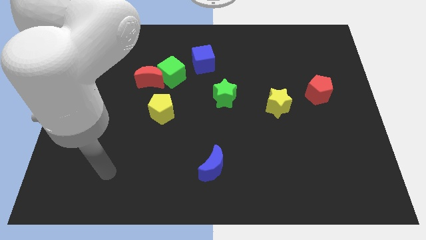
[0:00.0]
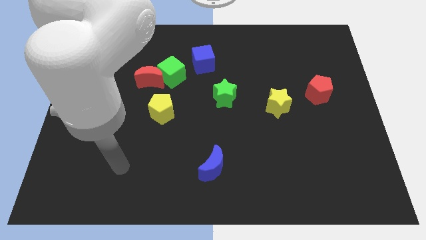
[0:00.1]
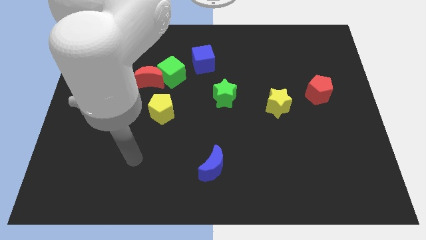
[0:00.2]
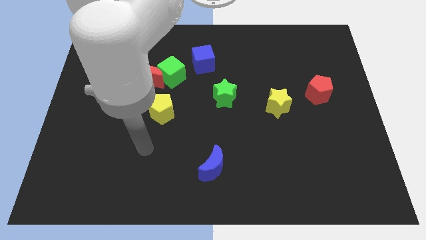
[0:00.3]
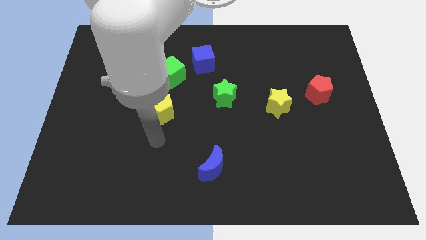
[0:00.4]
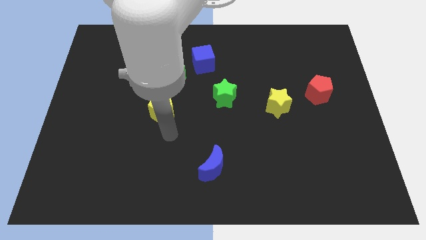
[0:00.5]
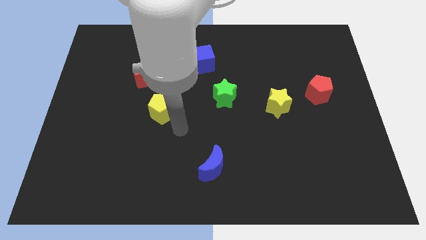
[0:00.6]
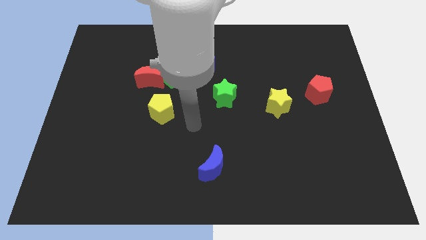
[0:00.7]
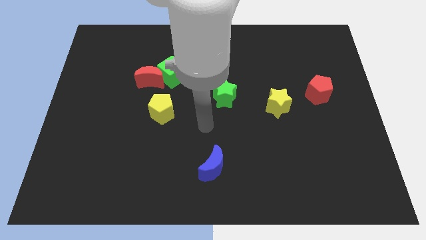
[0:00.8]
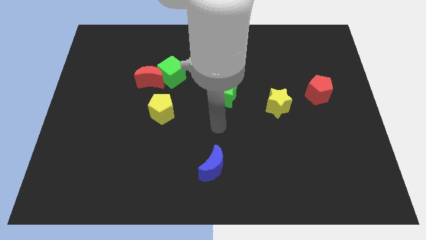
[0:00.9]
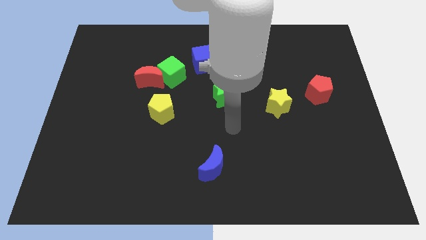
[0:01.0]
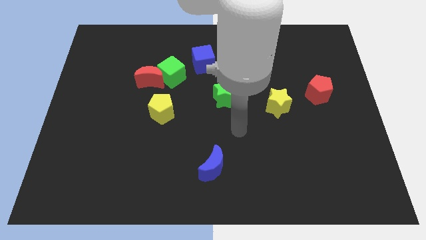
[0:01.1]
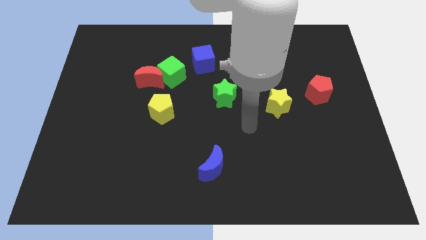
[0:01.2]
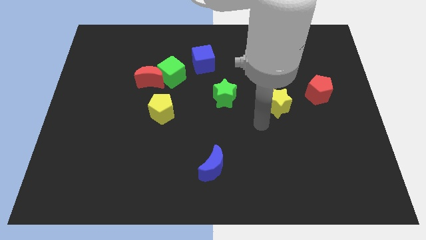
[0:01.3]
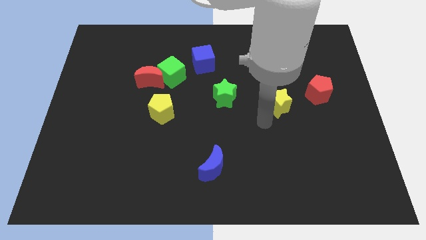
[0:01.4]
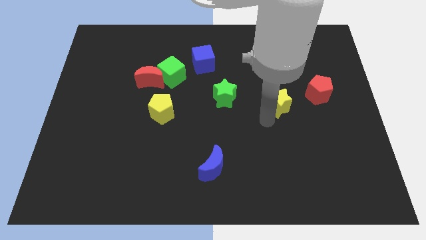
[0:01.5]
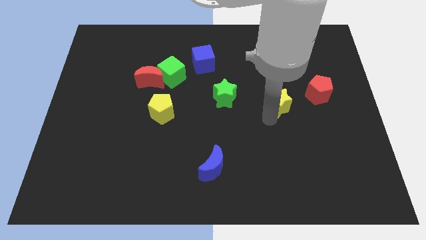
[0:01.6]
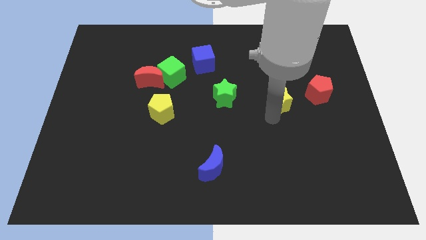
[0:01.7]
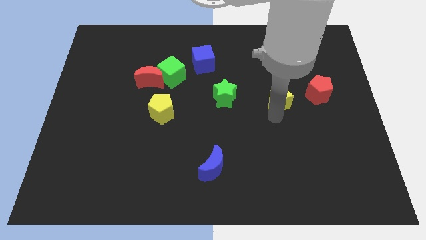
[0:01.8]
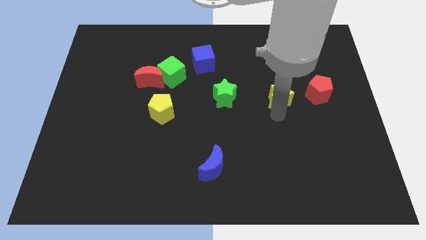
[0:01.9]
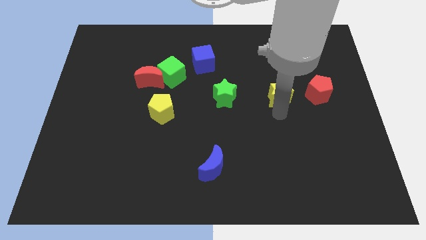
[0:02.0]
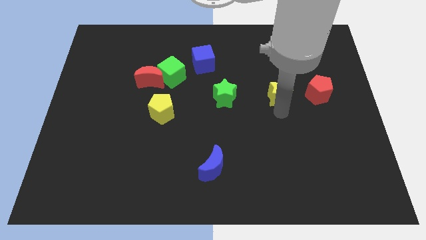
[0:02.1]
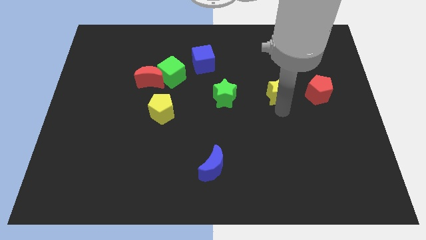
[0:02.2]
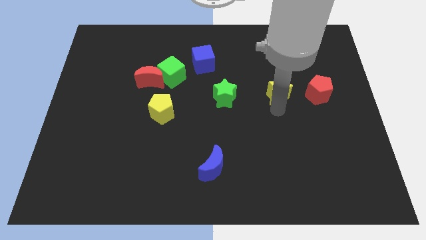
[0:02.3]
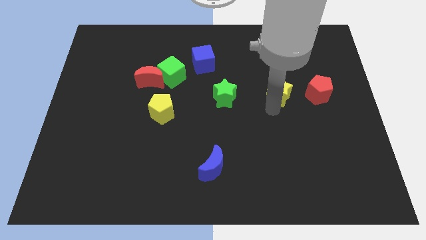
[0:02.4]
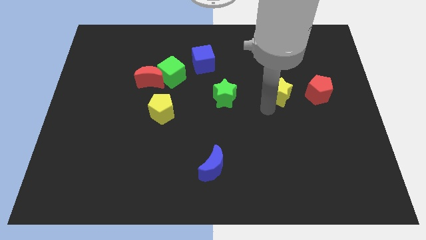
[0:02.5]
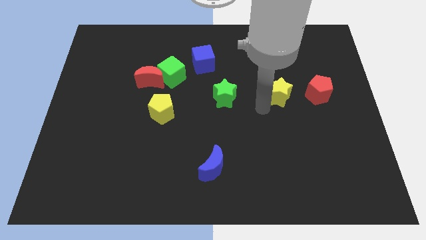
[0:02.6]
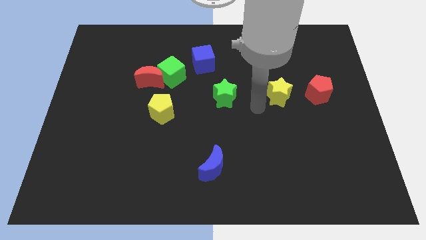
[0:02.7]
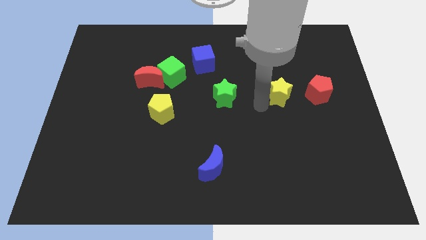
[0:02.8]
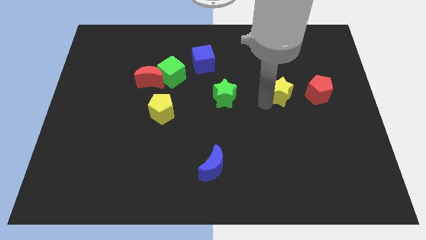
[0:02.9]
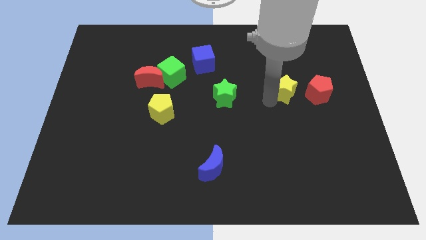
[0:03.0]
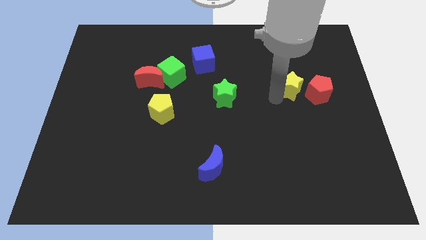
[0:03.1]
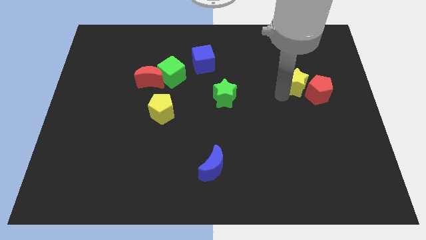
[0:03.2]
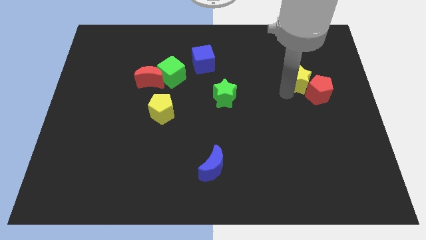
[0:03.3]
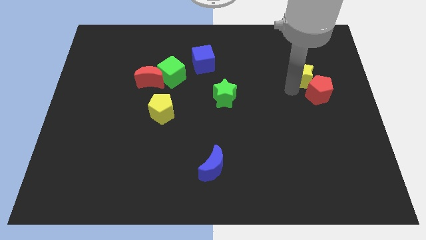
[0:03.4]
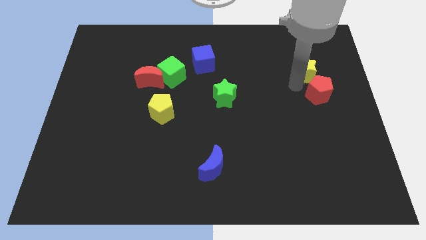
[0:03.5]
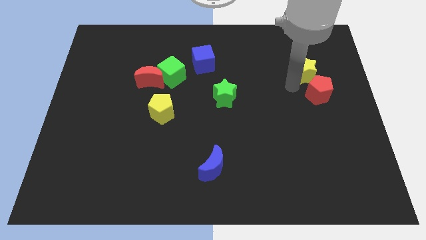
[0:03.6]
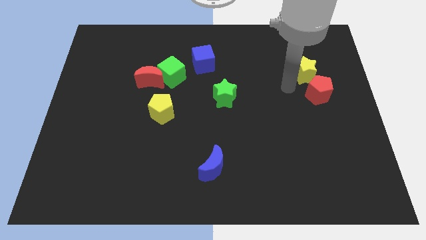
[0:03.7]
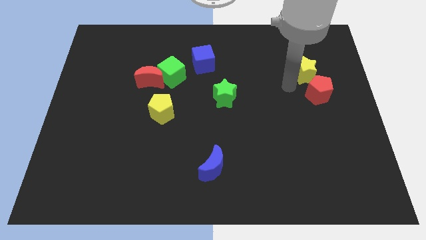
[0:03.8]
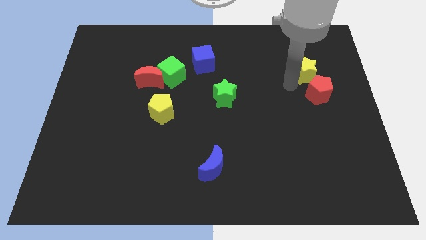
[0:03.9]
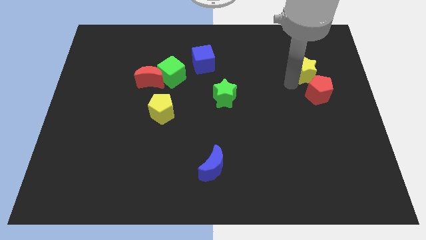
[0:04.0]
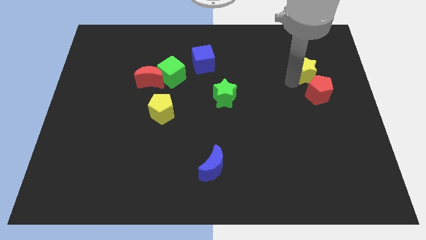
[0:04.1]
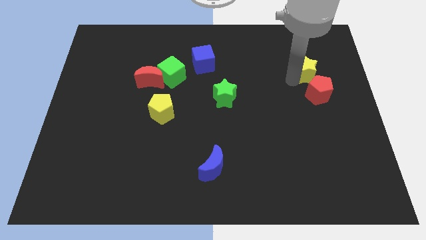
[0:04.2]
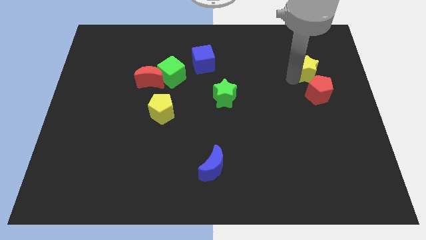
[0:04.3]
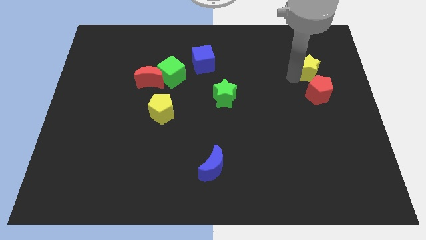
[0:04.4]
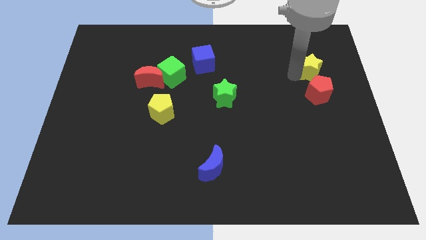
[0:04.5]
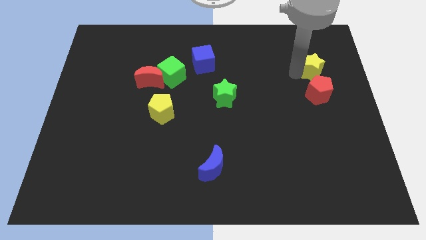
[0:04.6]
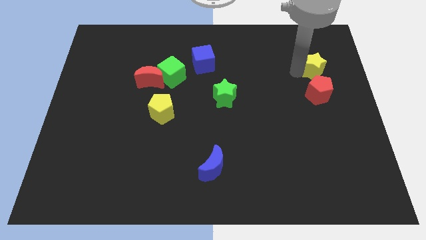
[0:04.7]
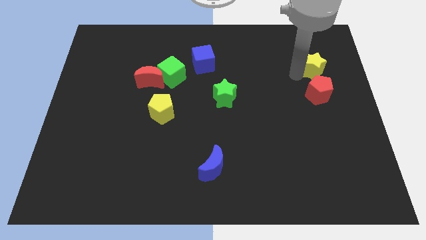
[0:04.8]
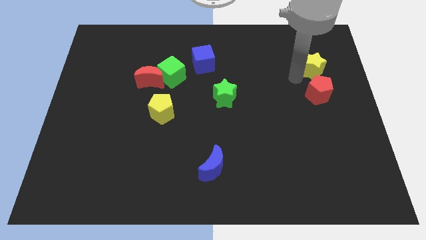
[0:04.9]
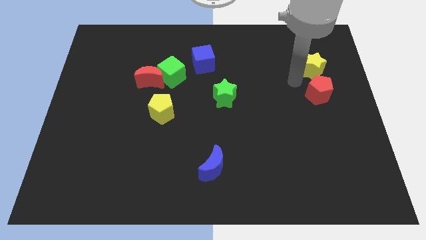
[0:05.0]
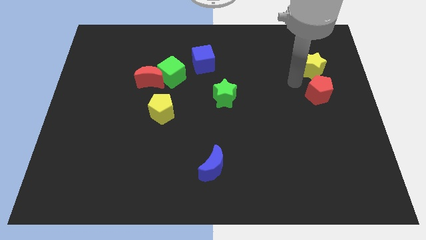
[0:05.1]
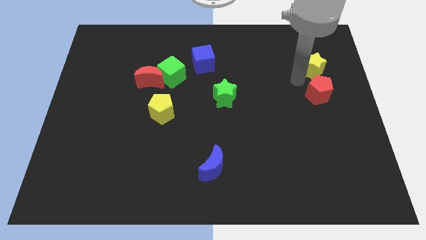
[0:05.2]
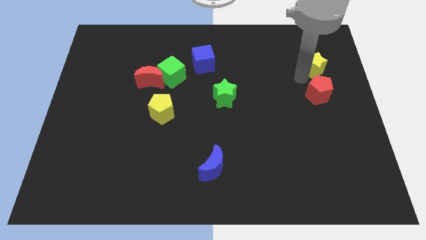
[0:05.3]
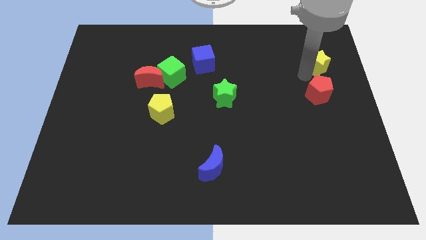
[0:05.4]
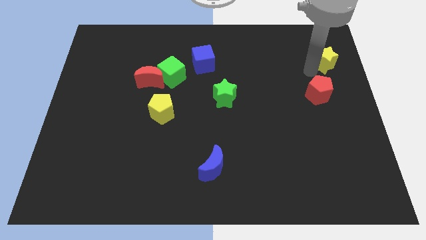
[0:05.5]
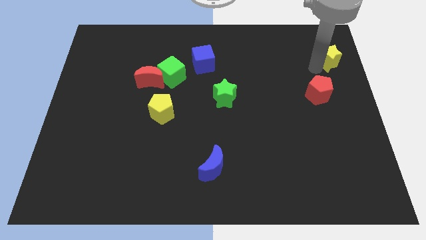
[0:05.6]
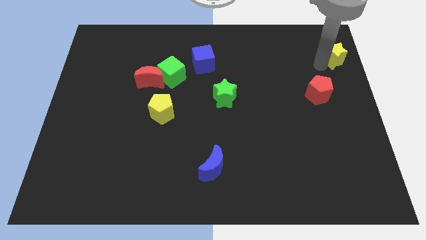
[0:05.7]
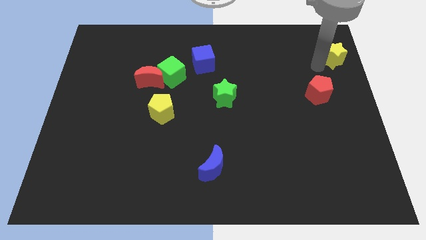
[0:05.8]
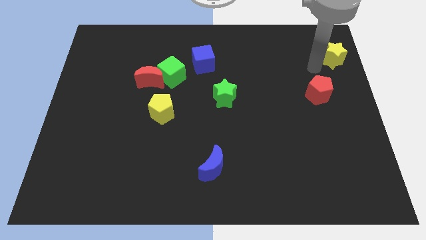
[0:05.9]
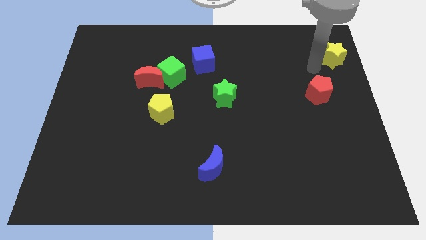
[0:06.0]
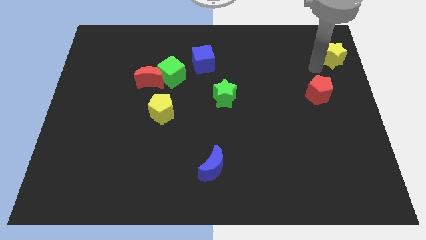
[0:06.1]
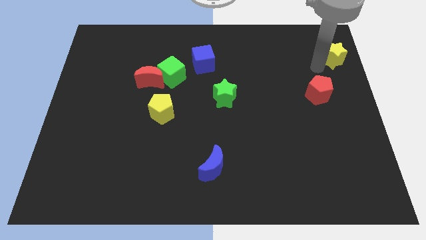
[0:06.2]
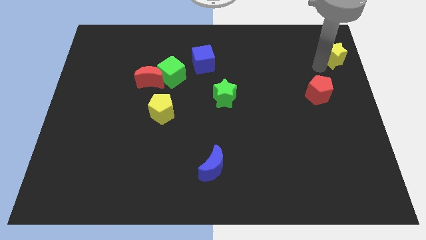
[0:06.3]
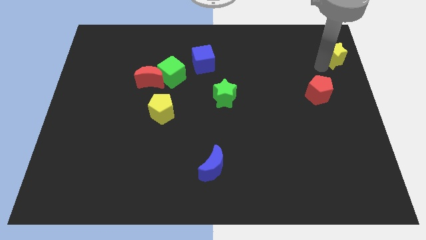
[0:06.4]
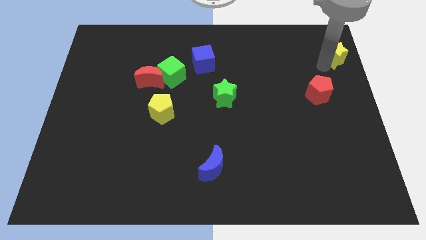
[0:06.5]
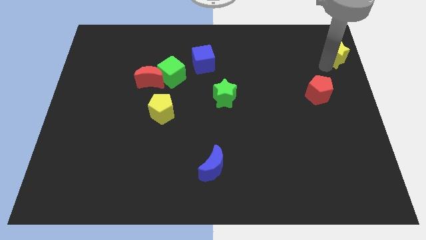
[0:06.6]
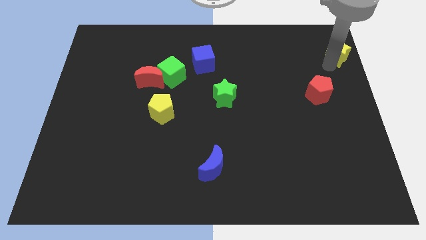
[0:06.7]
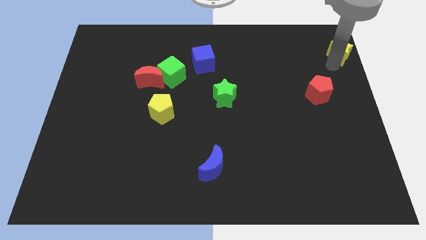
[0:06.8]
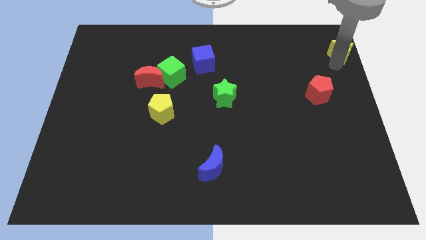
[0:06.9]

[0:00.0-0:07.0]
slide the yellow star to the top right of the board
